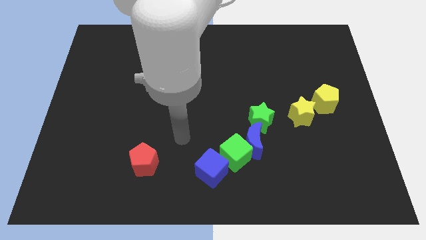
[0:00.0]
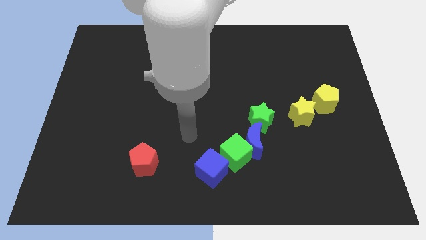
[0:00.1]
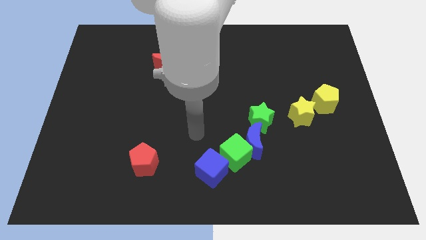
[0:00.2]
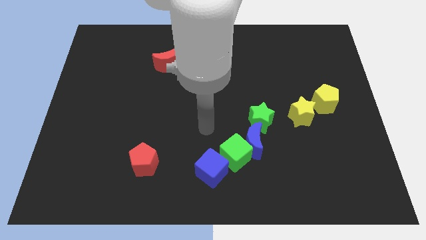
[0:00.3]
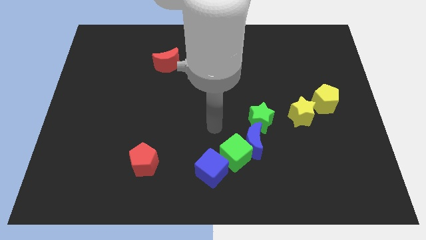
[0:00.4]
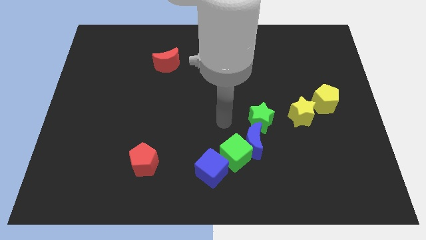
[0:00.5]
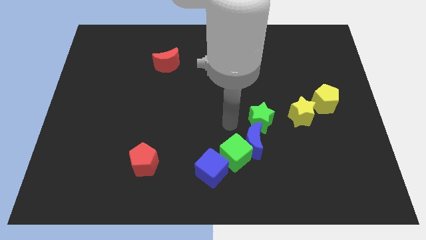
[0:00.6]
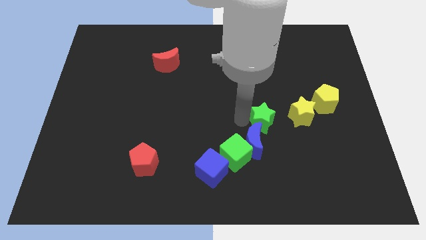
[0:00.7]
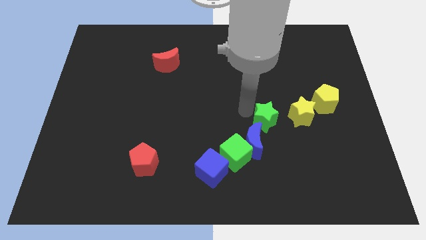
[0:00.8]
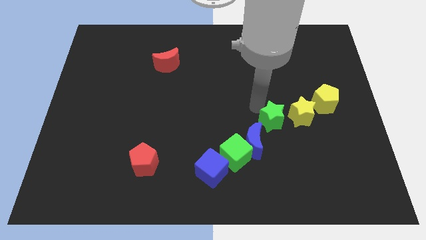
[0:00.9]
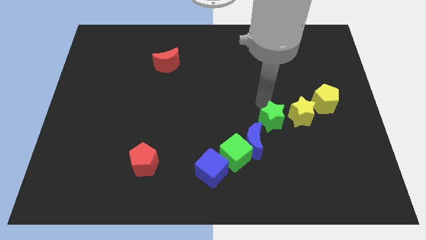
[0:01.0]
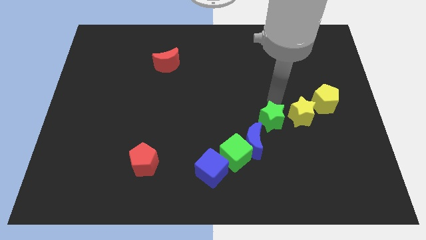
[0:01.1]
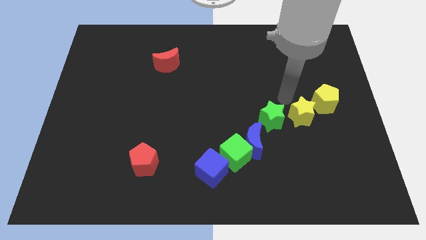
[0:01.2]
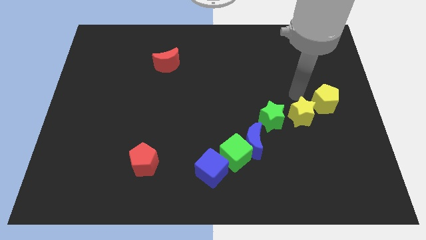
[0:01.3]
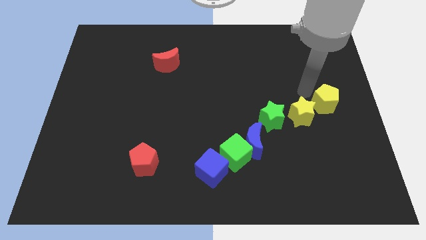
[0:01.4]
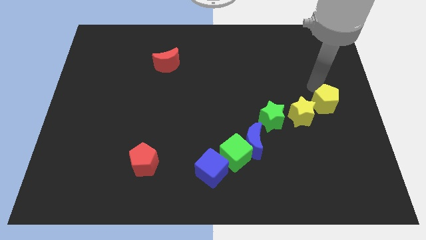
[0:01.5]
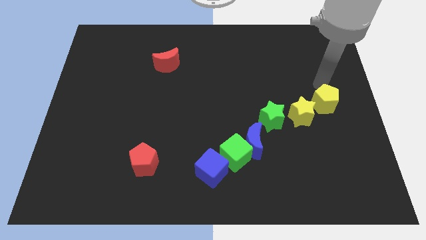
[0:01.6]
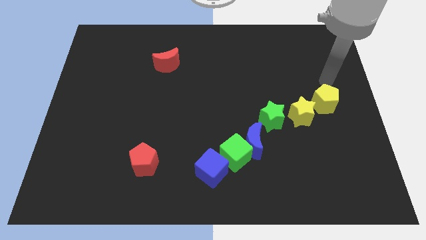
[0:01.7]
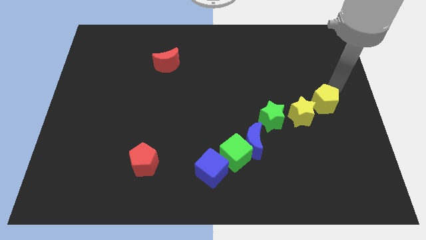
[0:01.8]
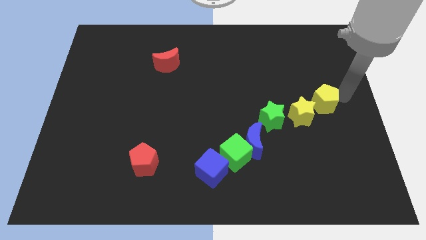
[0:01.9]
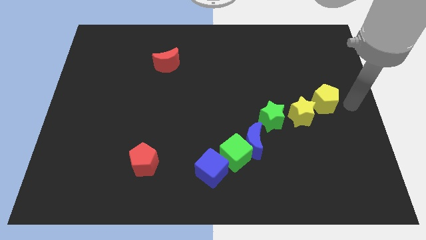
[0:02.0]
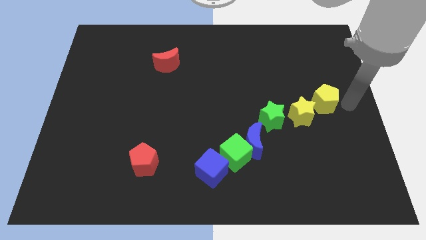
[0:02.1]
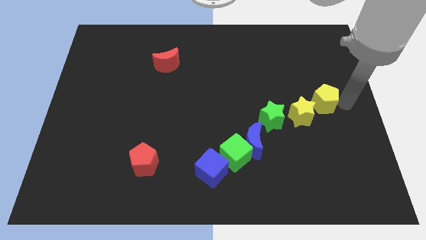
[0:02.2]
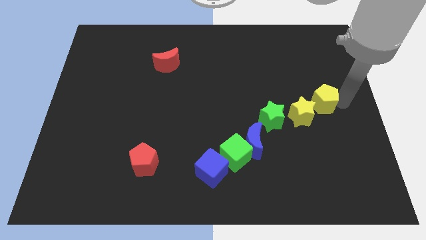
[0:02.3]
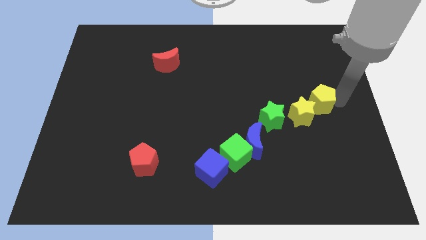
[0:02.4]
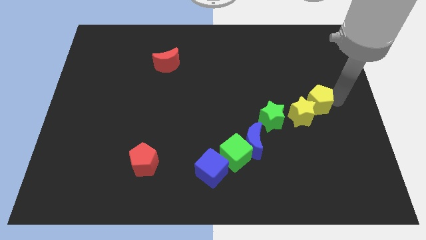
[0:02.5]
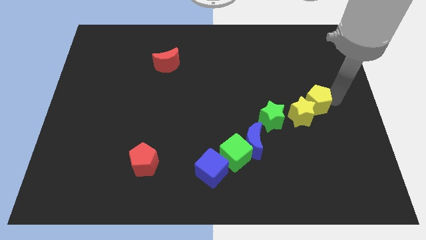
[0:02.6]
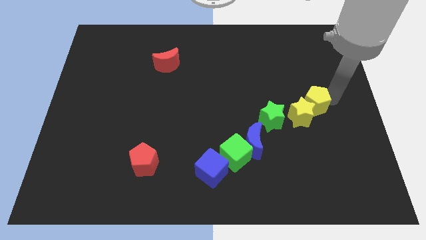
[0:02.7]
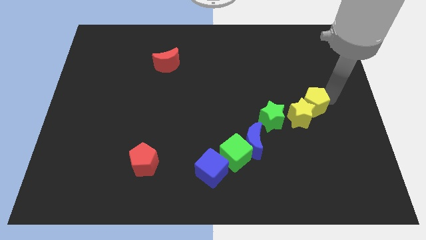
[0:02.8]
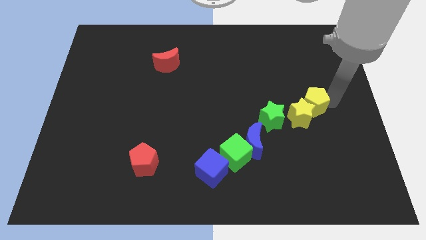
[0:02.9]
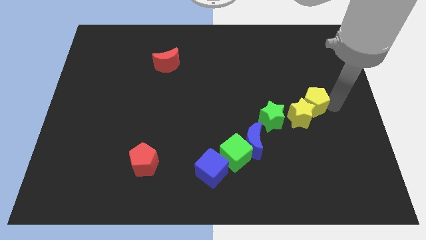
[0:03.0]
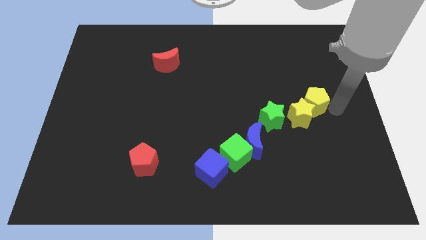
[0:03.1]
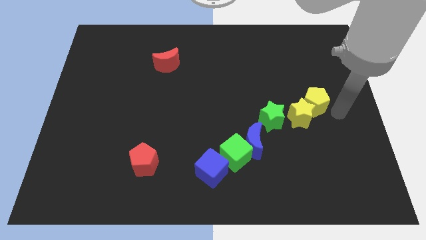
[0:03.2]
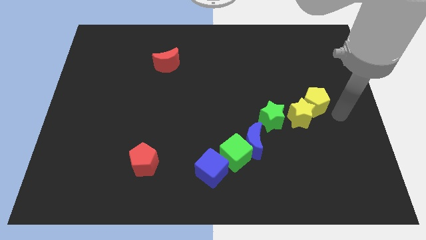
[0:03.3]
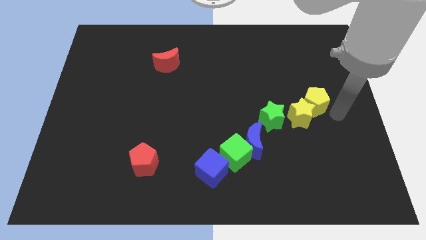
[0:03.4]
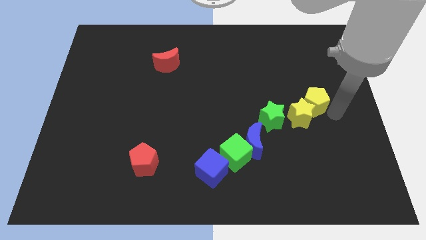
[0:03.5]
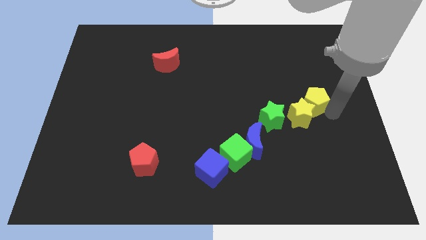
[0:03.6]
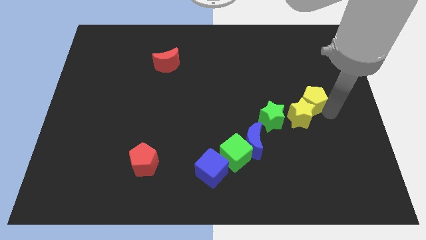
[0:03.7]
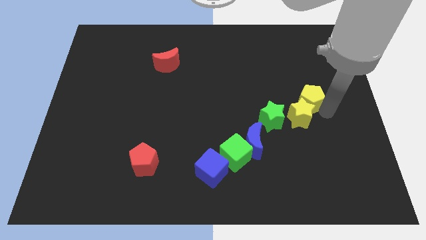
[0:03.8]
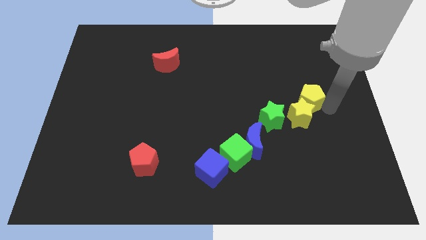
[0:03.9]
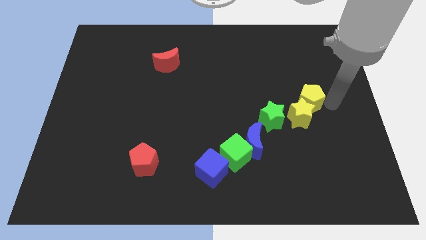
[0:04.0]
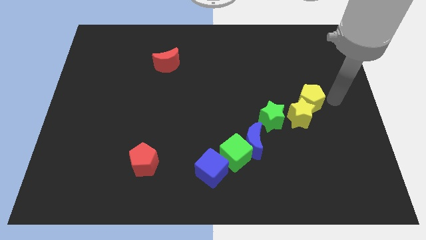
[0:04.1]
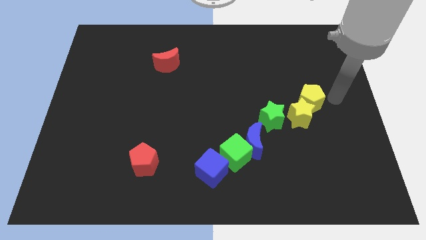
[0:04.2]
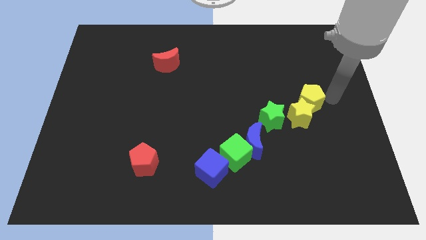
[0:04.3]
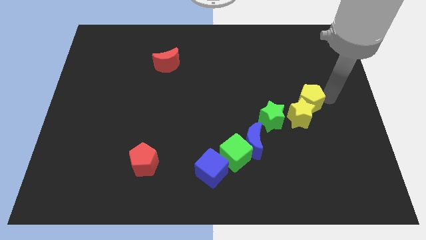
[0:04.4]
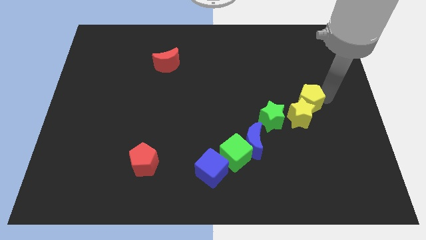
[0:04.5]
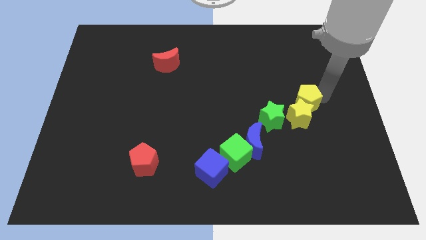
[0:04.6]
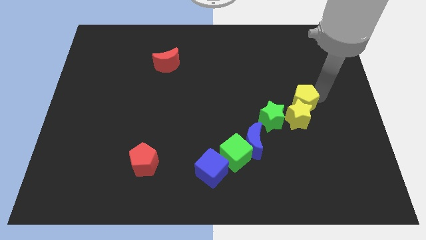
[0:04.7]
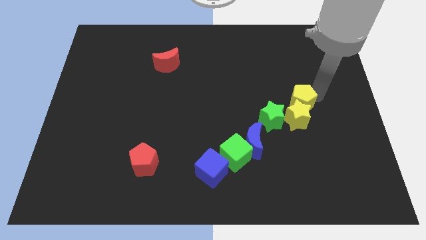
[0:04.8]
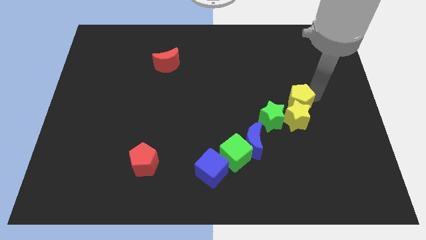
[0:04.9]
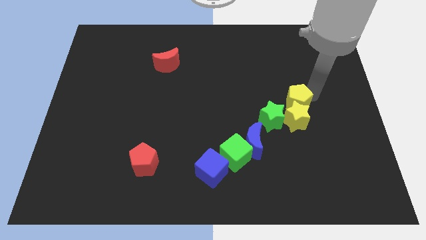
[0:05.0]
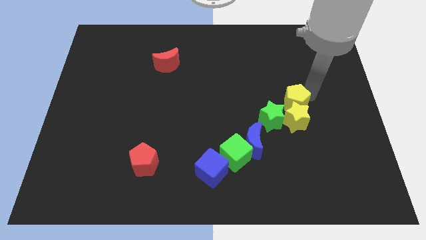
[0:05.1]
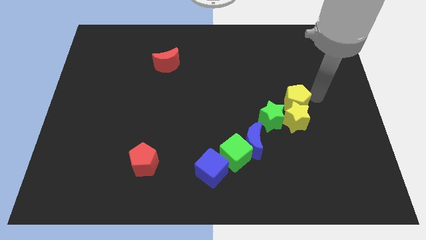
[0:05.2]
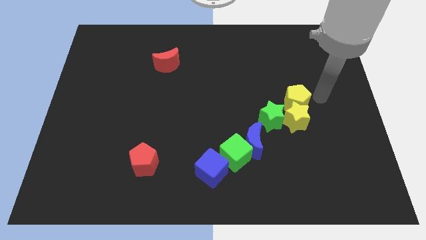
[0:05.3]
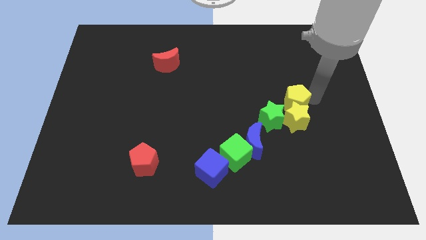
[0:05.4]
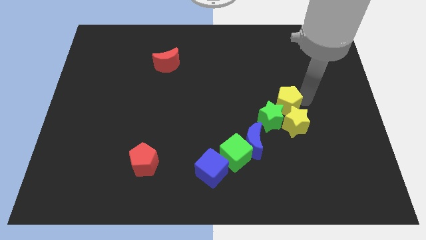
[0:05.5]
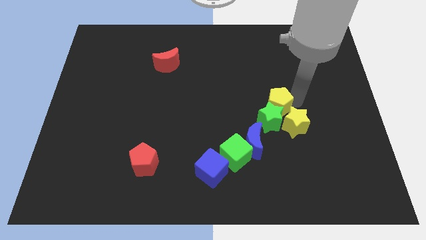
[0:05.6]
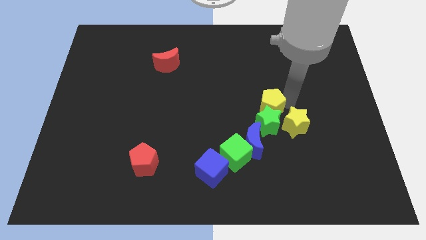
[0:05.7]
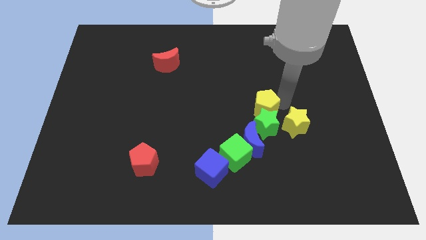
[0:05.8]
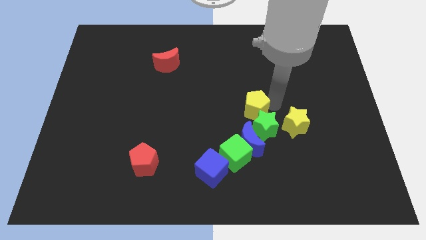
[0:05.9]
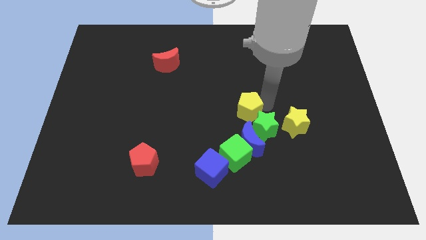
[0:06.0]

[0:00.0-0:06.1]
push the yellow pentagon above the green cube
